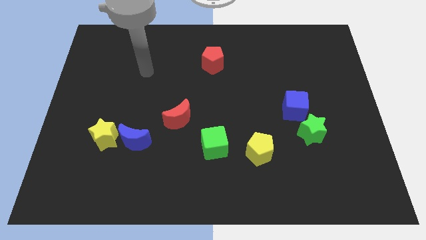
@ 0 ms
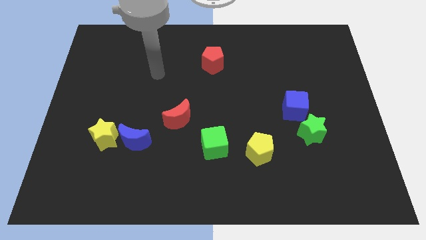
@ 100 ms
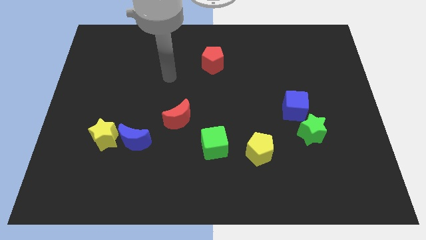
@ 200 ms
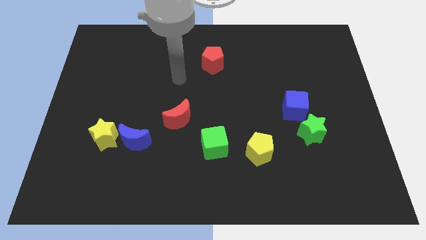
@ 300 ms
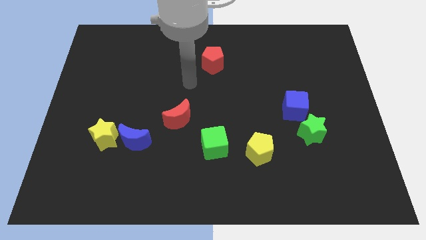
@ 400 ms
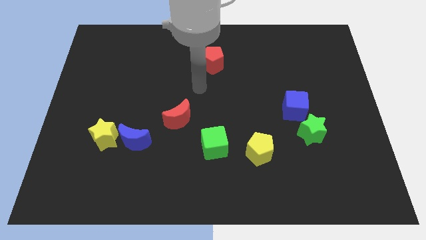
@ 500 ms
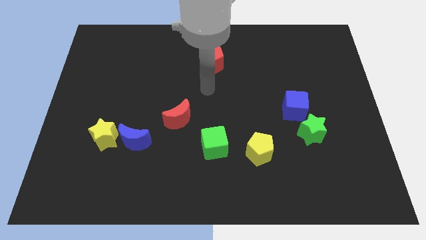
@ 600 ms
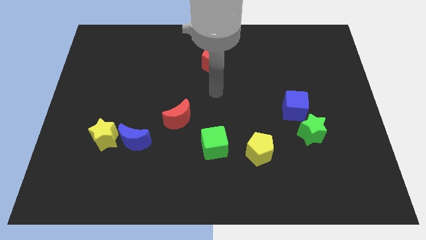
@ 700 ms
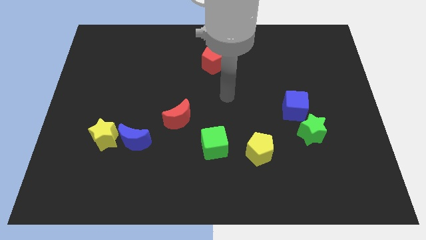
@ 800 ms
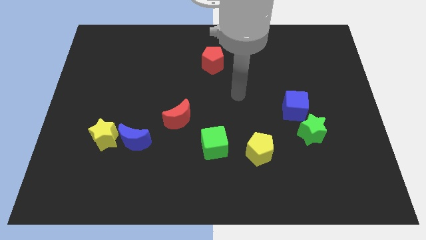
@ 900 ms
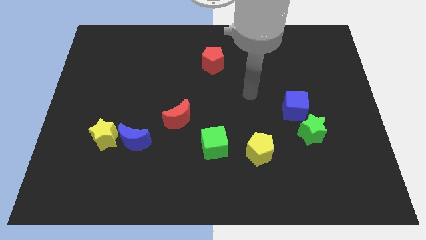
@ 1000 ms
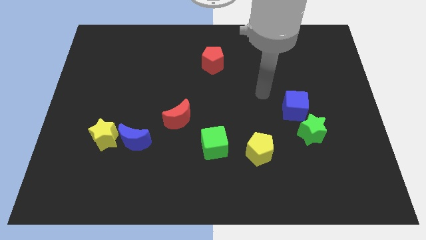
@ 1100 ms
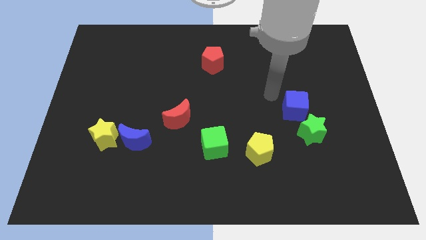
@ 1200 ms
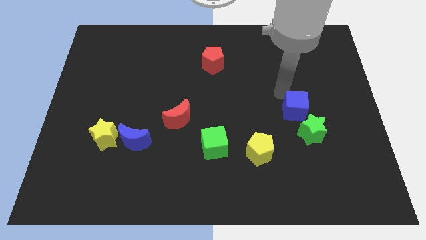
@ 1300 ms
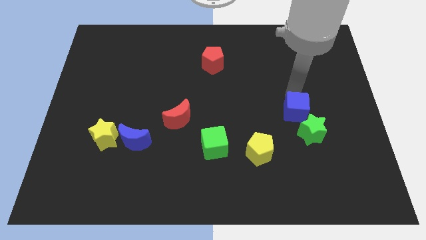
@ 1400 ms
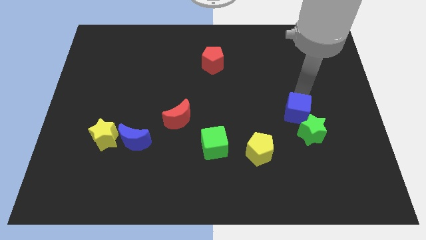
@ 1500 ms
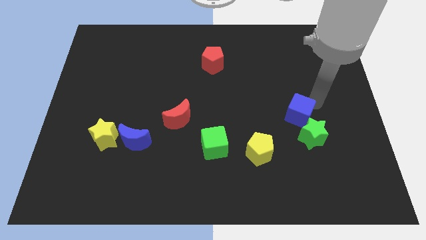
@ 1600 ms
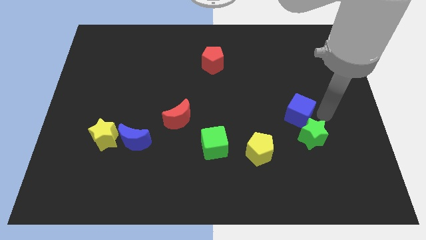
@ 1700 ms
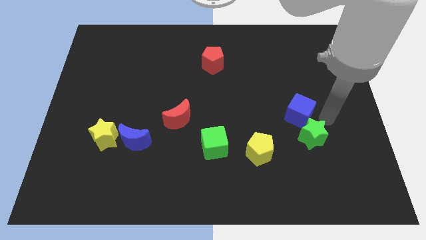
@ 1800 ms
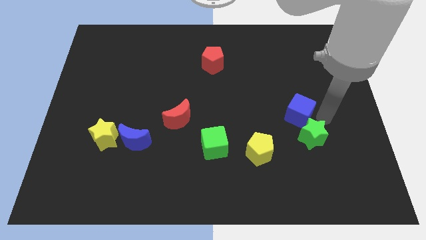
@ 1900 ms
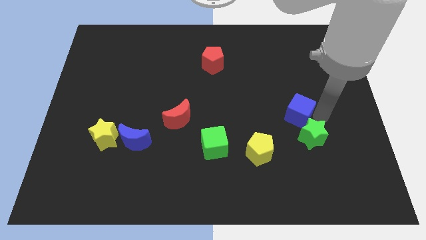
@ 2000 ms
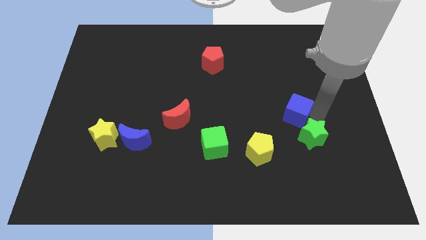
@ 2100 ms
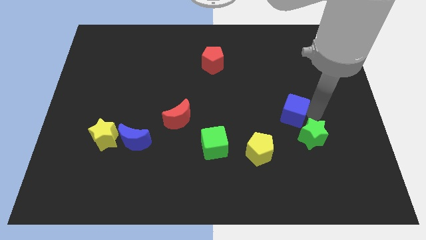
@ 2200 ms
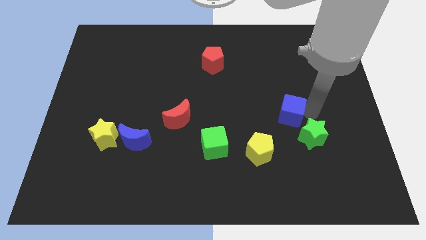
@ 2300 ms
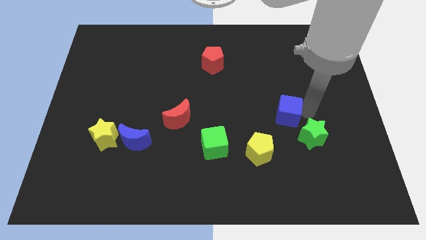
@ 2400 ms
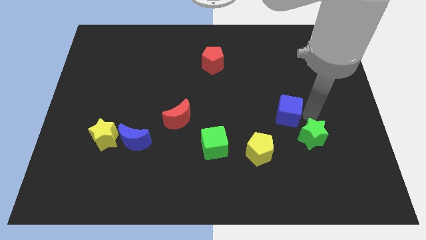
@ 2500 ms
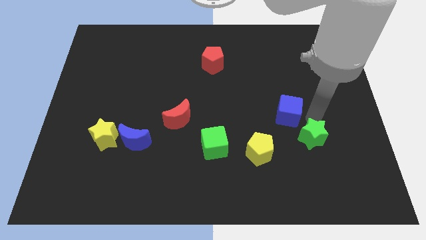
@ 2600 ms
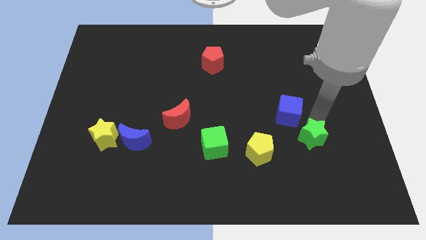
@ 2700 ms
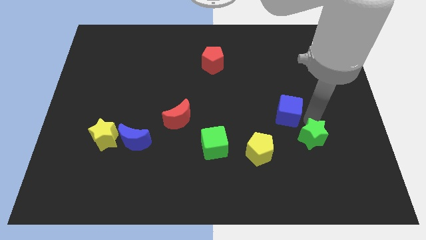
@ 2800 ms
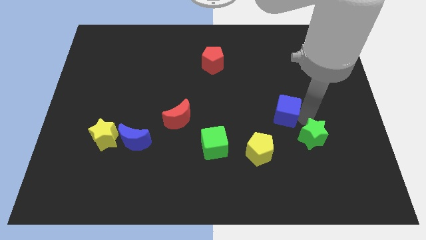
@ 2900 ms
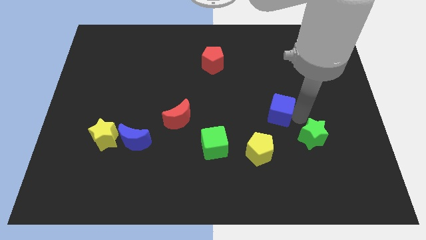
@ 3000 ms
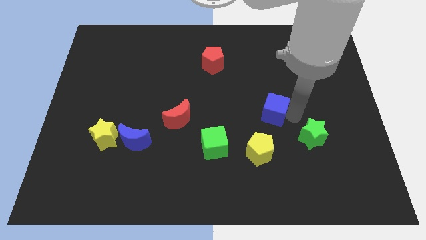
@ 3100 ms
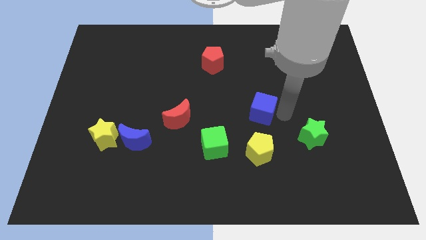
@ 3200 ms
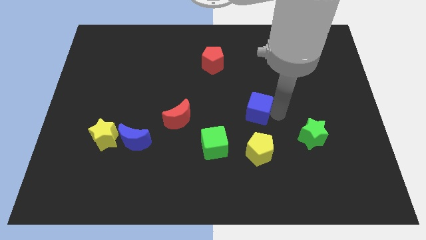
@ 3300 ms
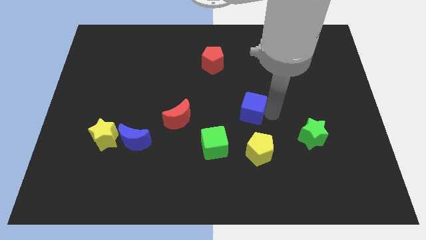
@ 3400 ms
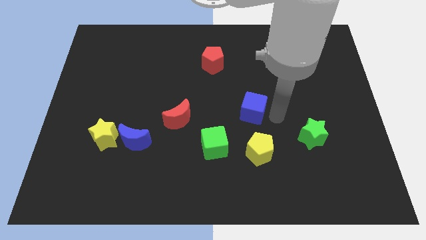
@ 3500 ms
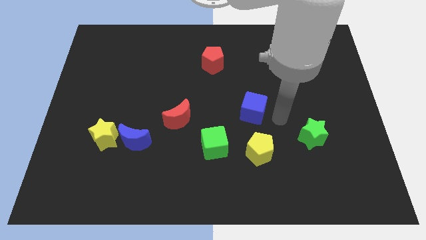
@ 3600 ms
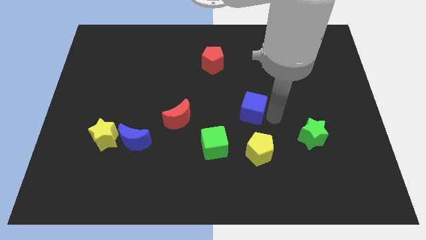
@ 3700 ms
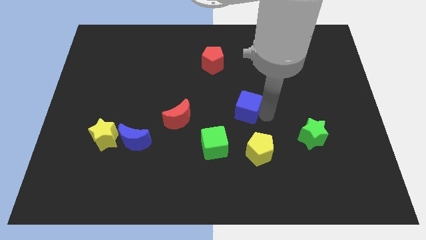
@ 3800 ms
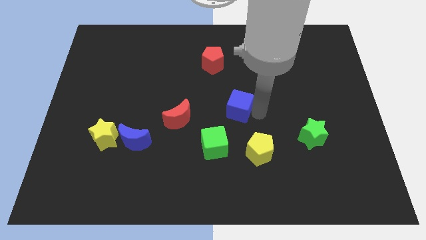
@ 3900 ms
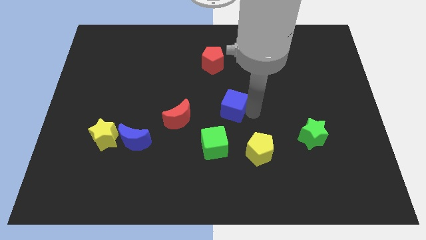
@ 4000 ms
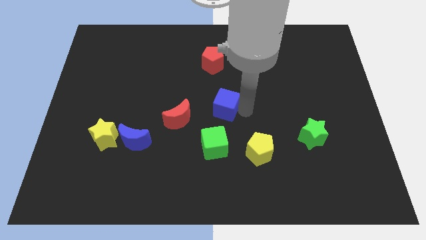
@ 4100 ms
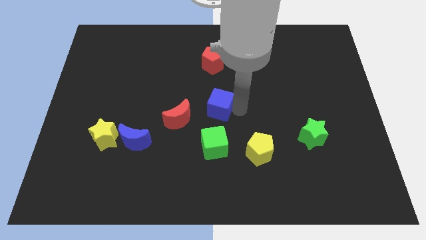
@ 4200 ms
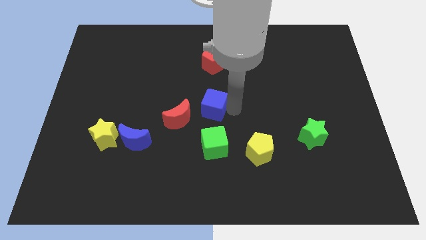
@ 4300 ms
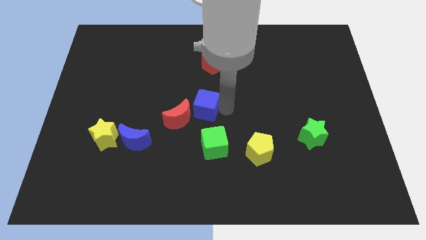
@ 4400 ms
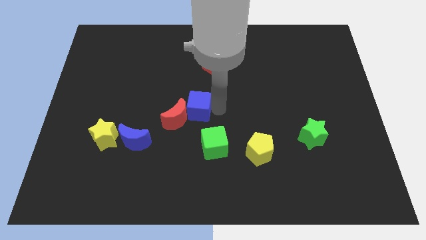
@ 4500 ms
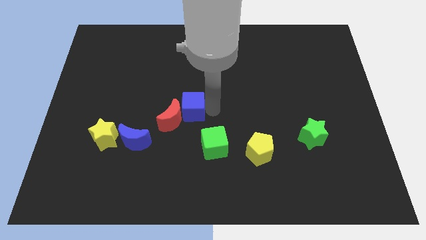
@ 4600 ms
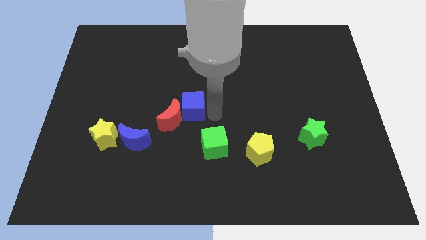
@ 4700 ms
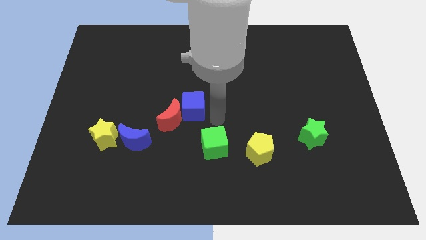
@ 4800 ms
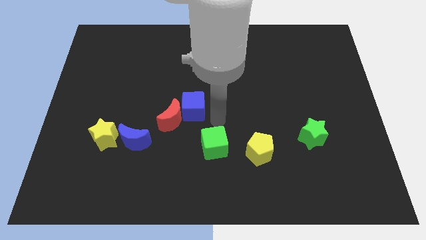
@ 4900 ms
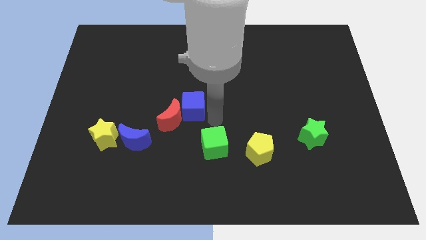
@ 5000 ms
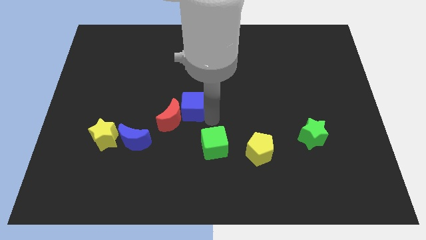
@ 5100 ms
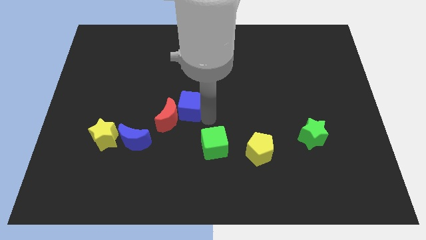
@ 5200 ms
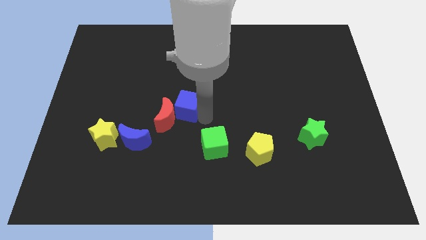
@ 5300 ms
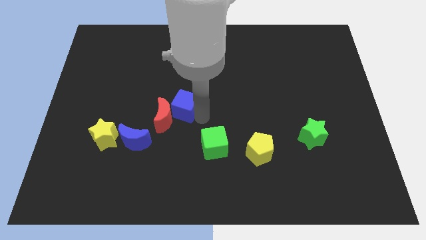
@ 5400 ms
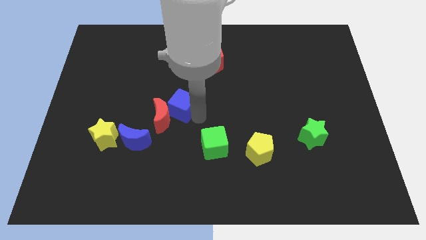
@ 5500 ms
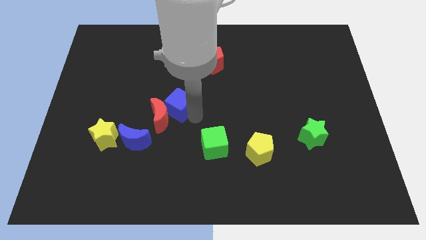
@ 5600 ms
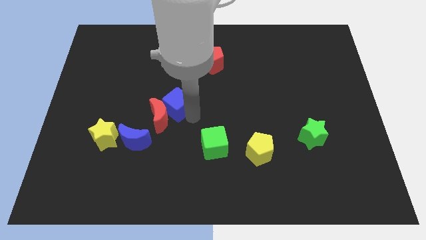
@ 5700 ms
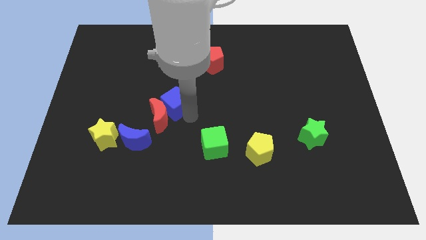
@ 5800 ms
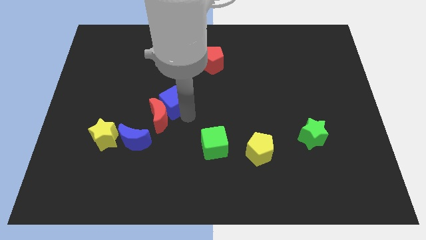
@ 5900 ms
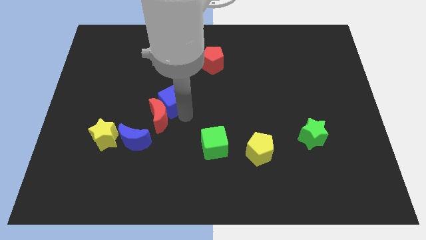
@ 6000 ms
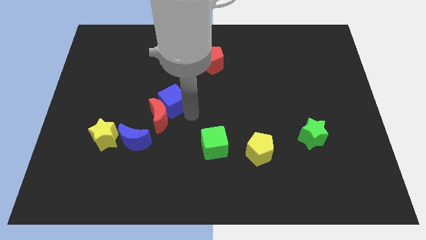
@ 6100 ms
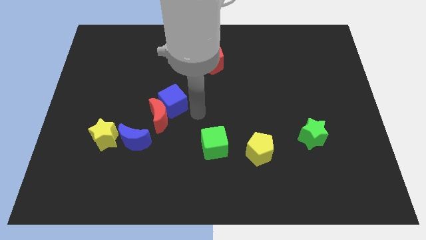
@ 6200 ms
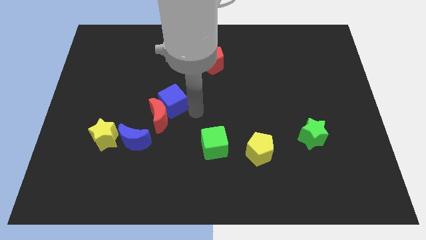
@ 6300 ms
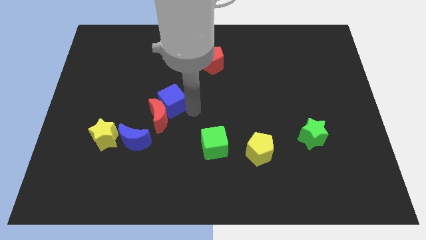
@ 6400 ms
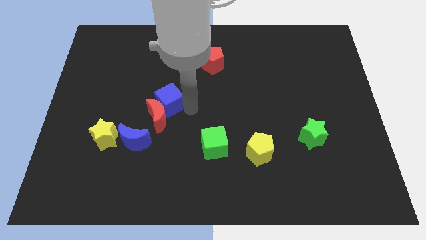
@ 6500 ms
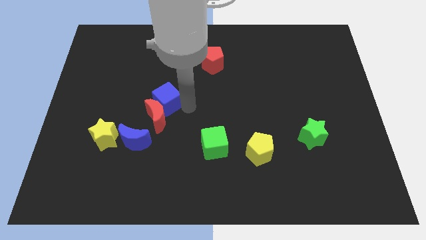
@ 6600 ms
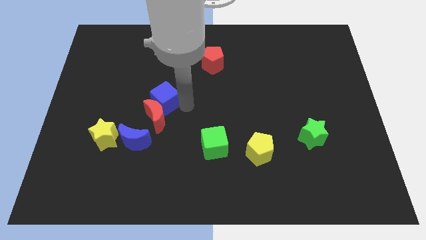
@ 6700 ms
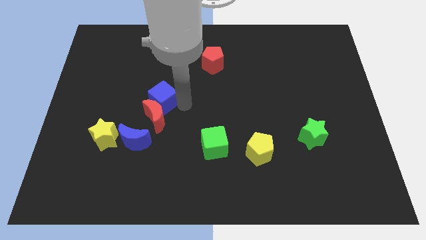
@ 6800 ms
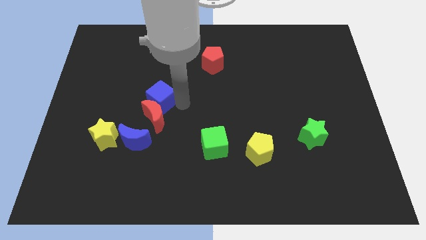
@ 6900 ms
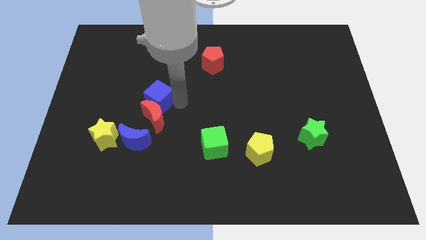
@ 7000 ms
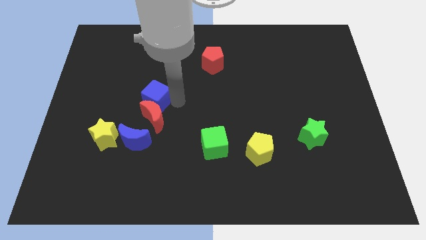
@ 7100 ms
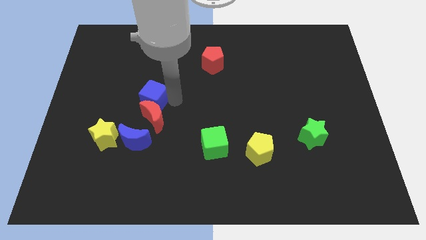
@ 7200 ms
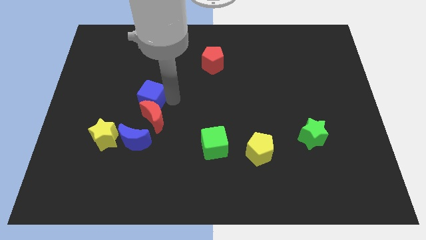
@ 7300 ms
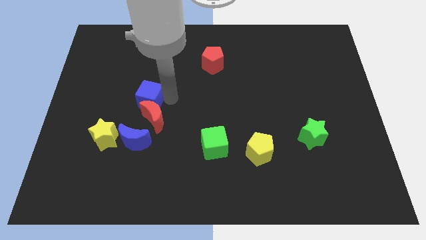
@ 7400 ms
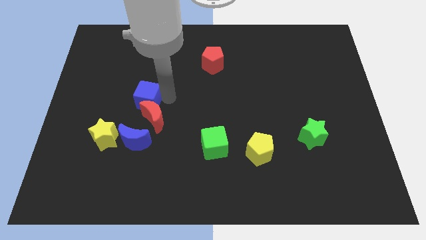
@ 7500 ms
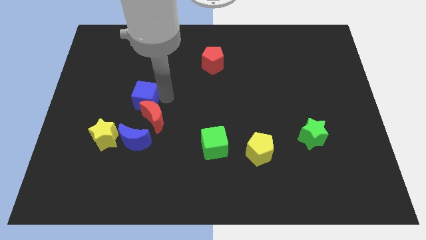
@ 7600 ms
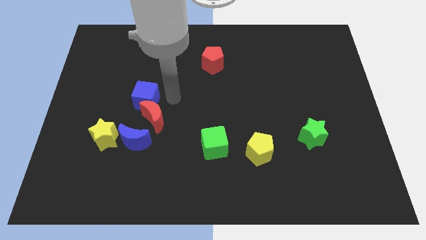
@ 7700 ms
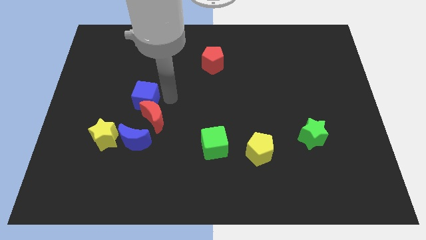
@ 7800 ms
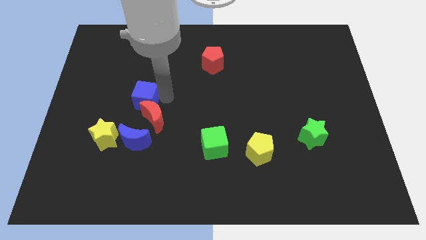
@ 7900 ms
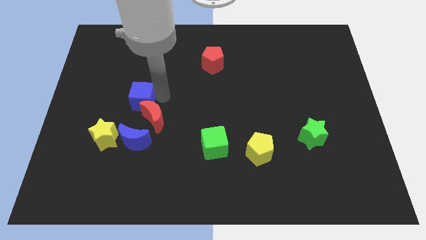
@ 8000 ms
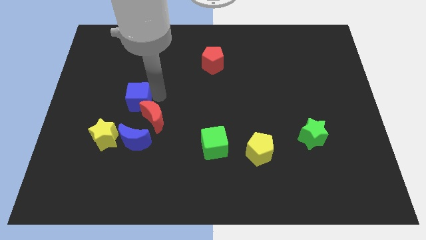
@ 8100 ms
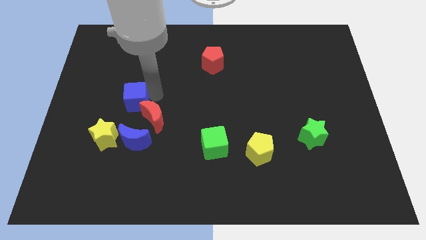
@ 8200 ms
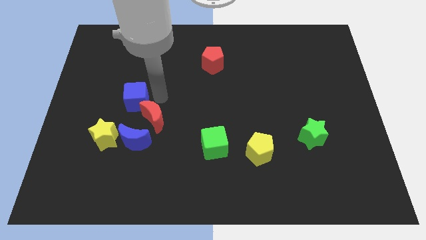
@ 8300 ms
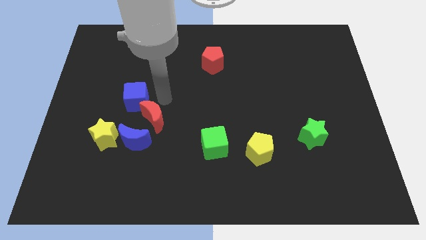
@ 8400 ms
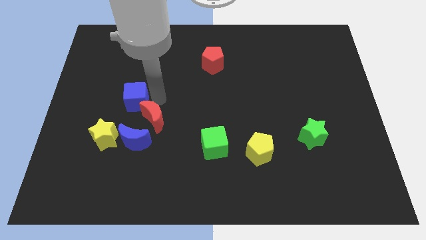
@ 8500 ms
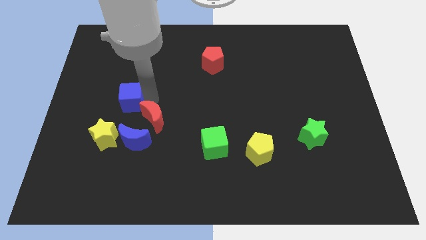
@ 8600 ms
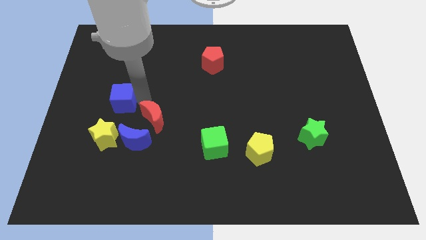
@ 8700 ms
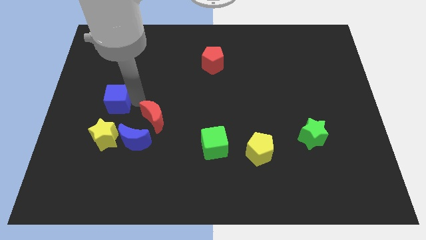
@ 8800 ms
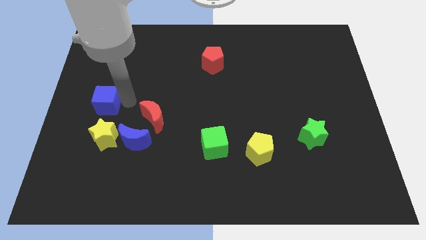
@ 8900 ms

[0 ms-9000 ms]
put the blue cube to the left side of the board
